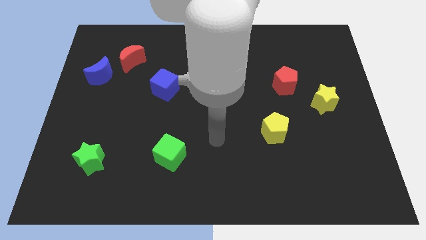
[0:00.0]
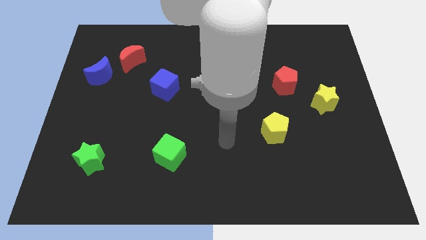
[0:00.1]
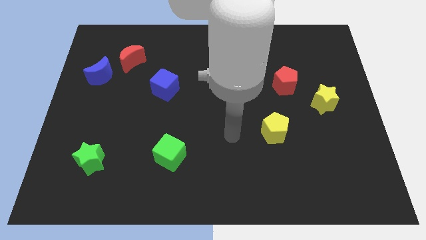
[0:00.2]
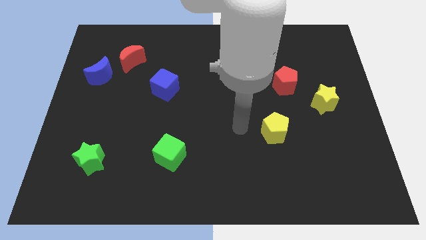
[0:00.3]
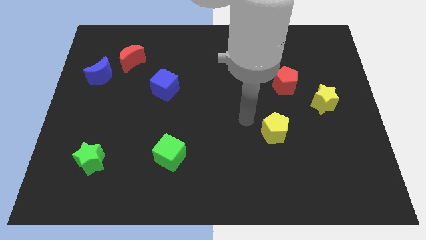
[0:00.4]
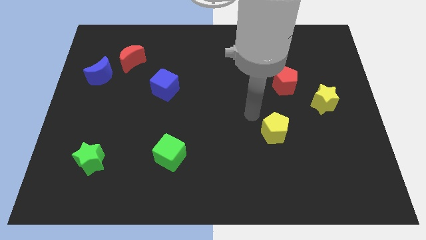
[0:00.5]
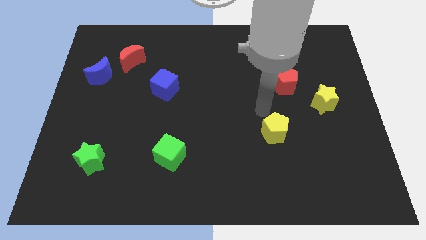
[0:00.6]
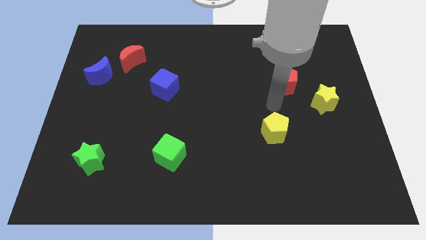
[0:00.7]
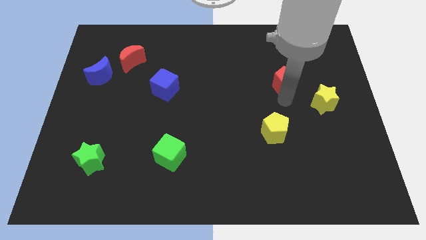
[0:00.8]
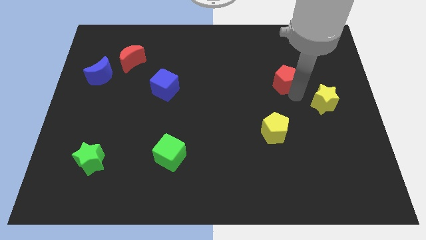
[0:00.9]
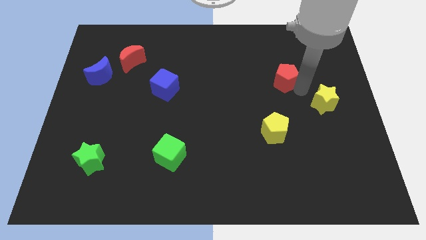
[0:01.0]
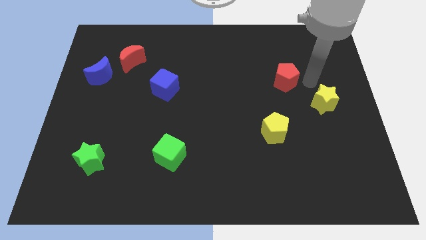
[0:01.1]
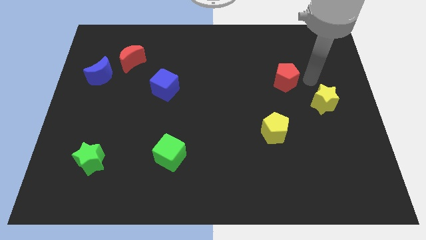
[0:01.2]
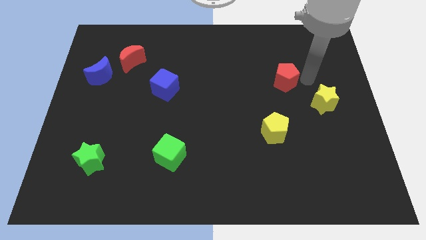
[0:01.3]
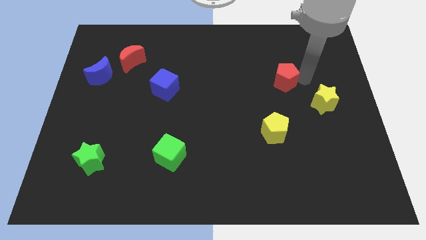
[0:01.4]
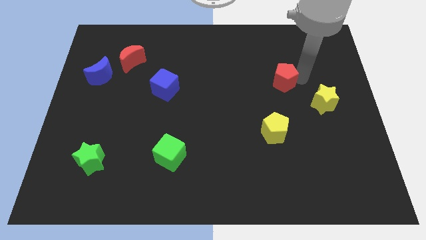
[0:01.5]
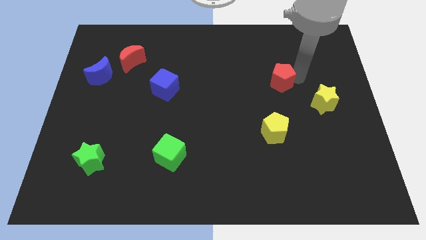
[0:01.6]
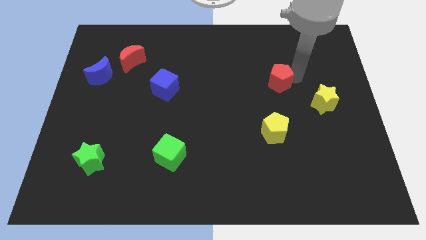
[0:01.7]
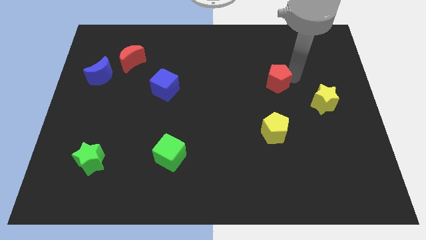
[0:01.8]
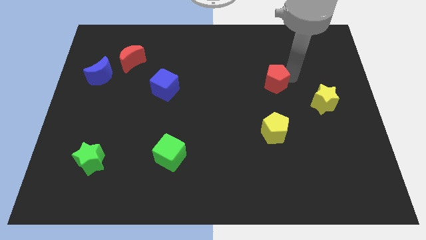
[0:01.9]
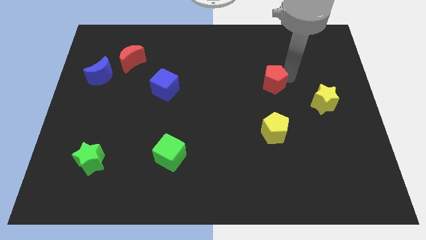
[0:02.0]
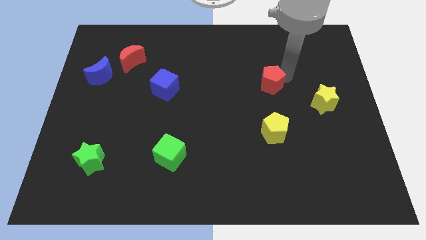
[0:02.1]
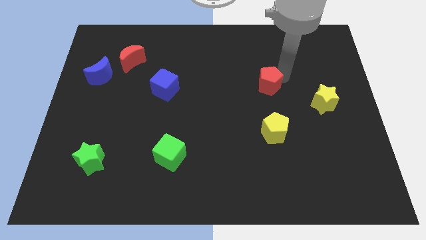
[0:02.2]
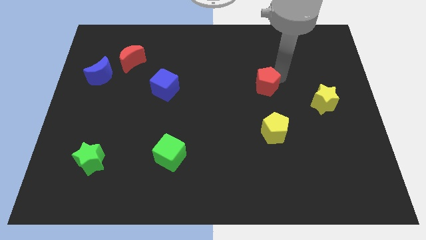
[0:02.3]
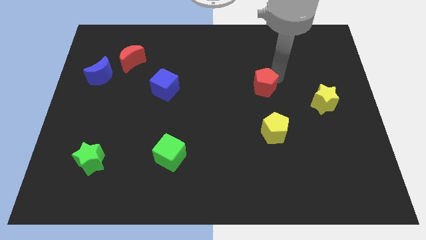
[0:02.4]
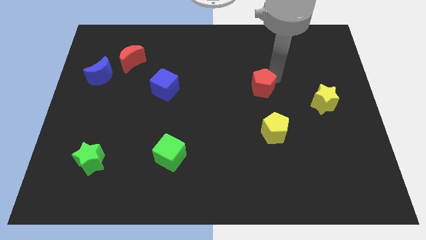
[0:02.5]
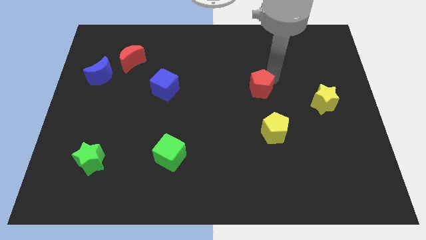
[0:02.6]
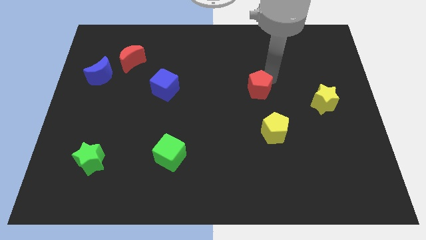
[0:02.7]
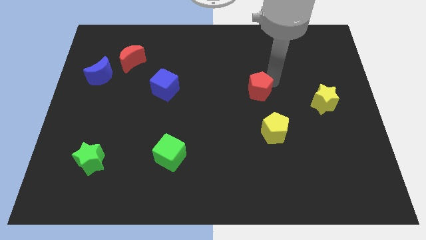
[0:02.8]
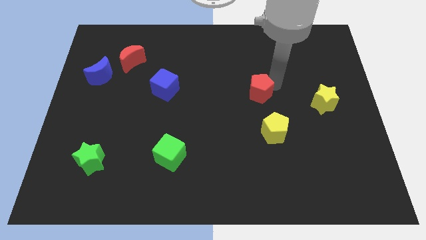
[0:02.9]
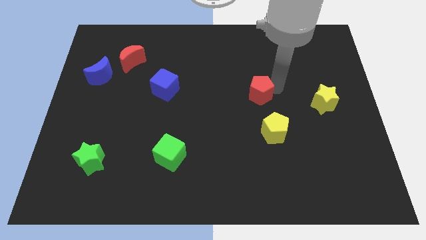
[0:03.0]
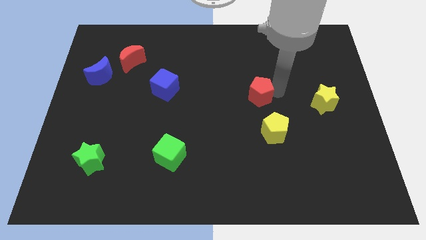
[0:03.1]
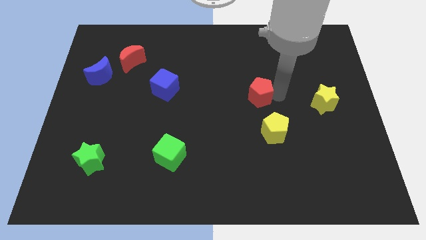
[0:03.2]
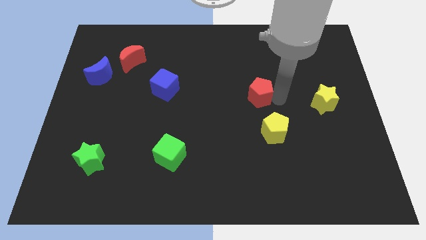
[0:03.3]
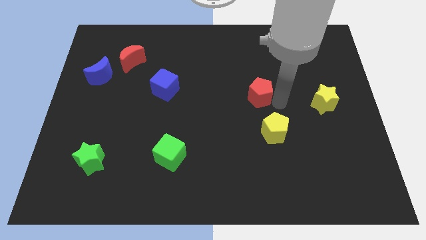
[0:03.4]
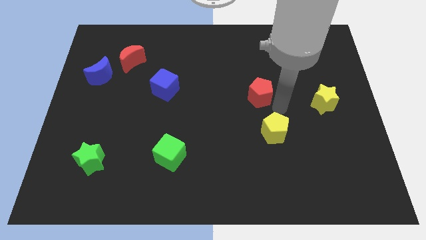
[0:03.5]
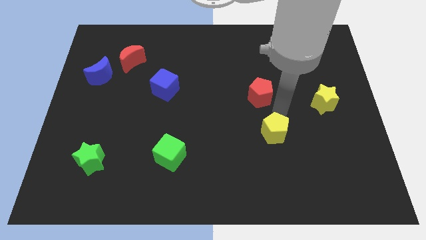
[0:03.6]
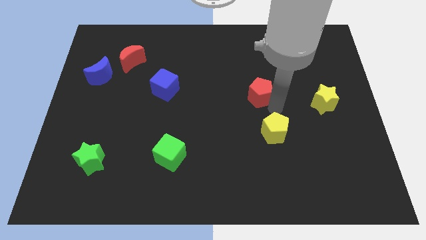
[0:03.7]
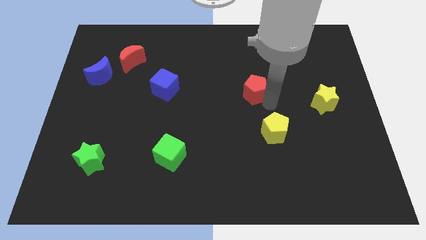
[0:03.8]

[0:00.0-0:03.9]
slightly push the red pentagon to the left

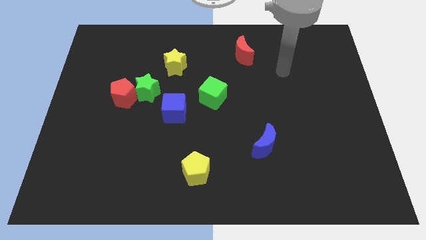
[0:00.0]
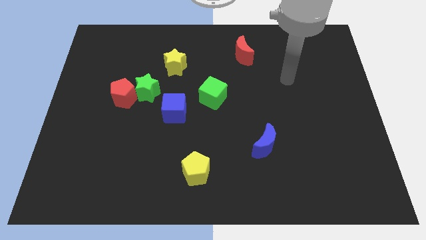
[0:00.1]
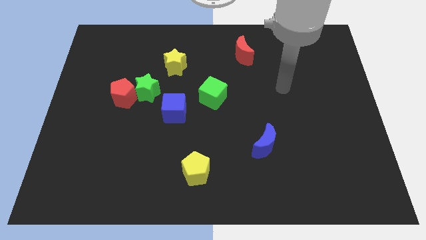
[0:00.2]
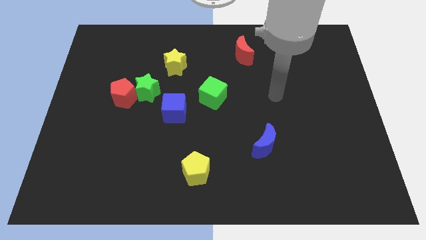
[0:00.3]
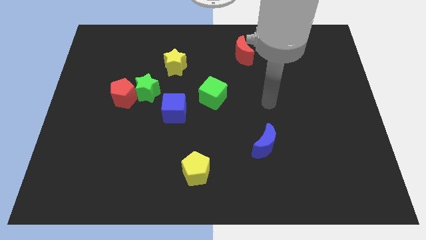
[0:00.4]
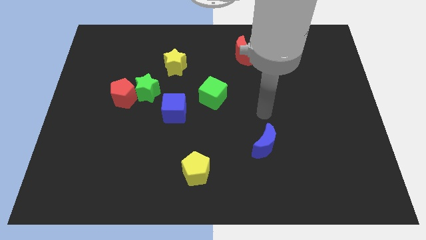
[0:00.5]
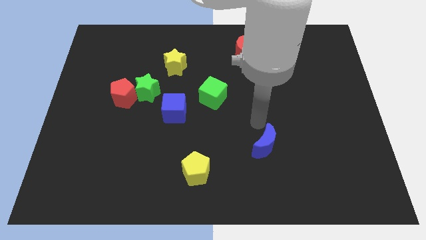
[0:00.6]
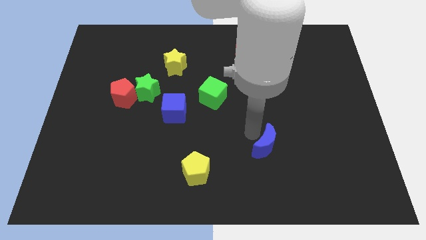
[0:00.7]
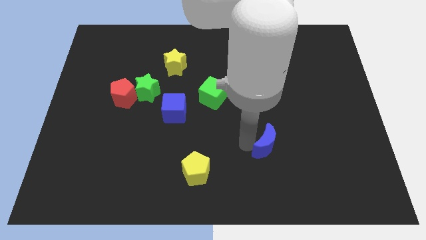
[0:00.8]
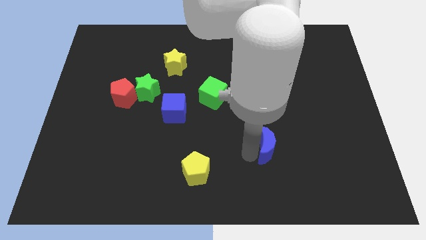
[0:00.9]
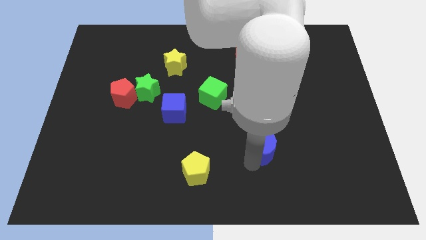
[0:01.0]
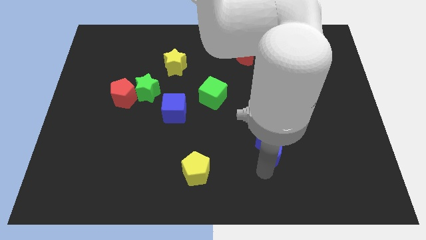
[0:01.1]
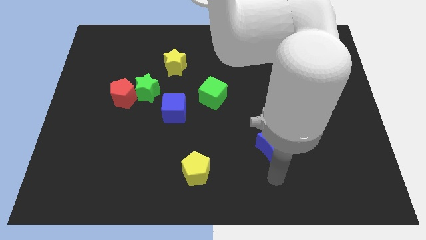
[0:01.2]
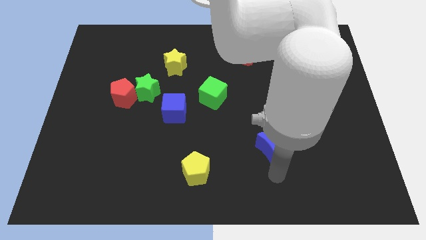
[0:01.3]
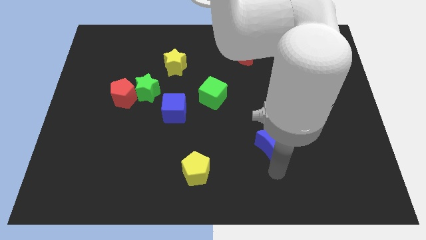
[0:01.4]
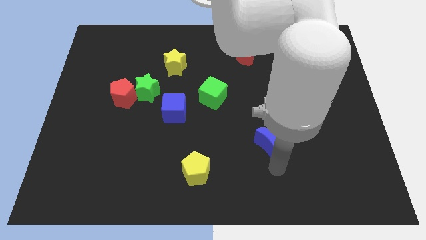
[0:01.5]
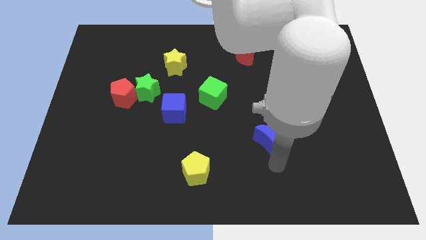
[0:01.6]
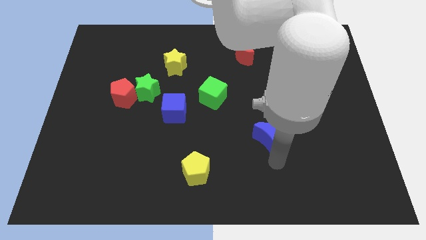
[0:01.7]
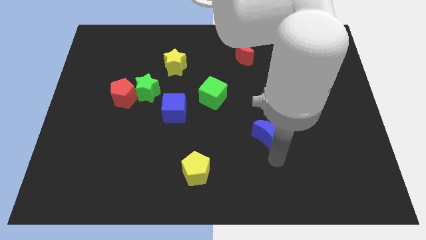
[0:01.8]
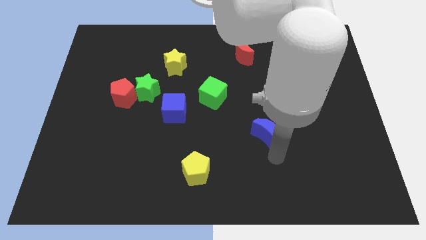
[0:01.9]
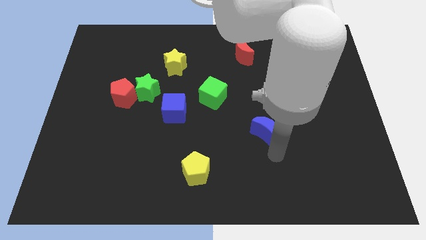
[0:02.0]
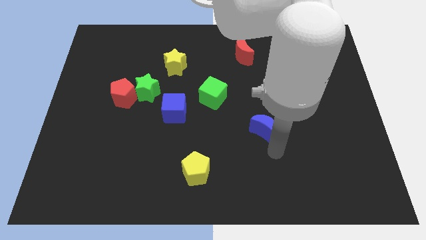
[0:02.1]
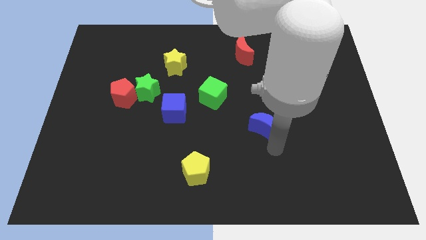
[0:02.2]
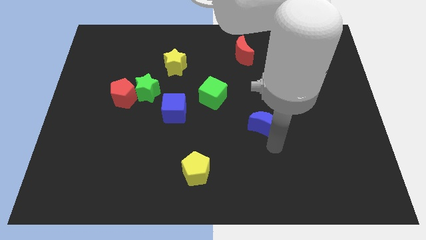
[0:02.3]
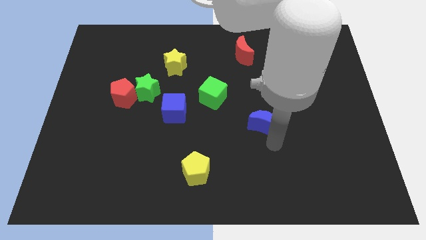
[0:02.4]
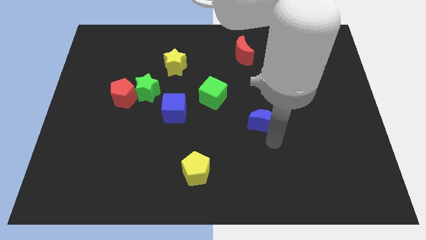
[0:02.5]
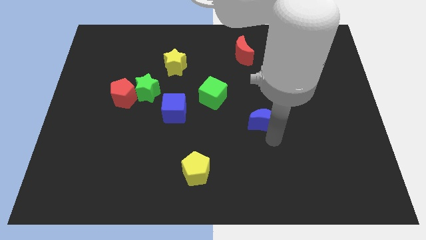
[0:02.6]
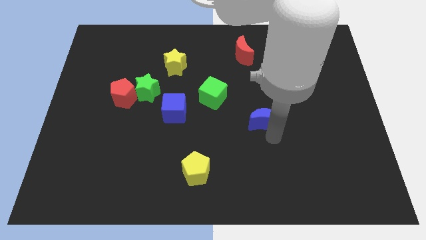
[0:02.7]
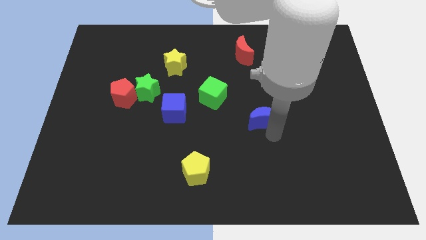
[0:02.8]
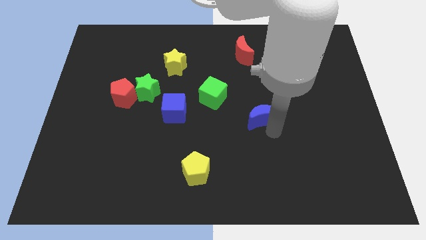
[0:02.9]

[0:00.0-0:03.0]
slightly push the blue moon upwards

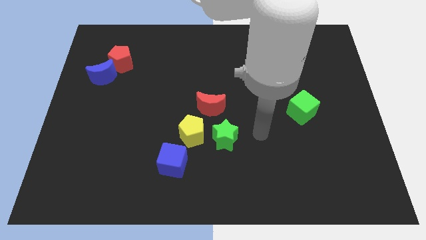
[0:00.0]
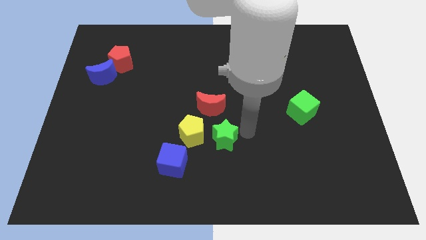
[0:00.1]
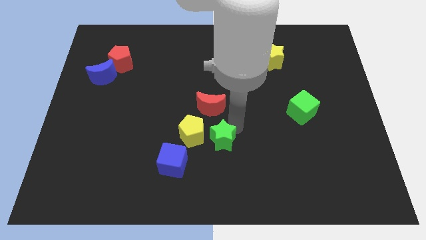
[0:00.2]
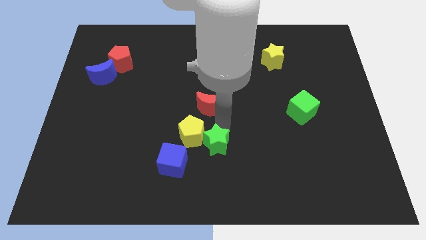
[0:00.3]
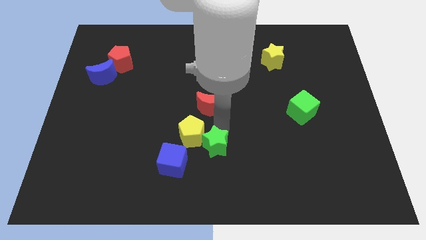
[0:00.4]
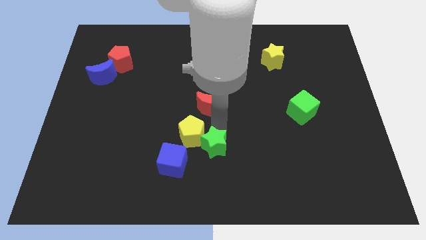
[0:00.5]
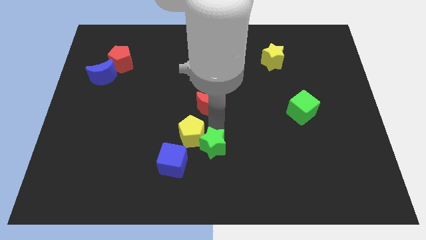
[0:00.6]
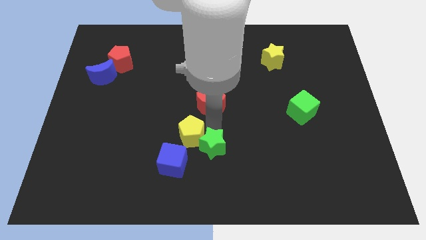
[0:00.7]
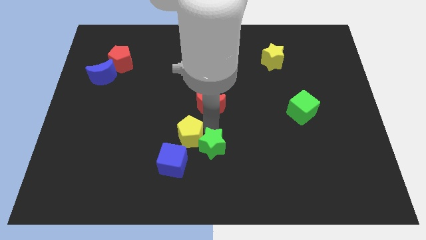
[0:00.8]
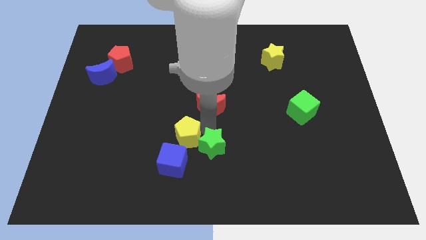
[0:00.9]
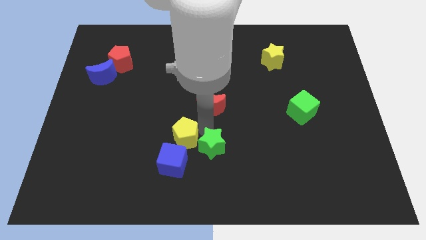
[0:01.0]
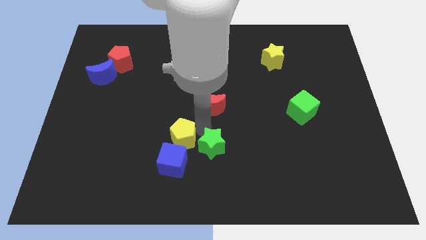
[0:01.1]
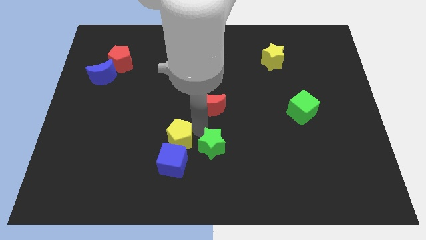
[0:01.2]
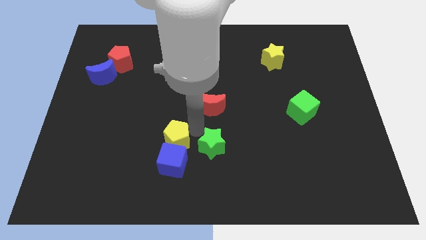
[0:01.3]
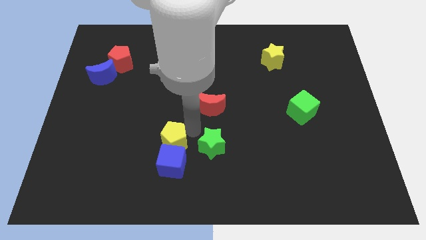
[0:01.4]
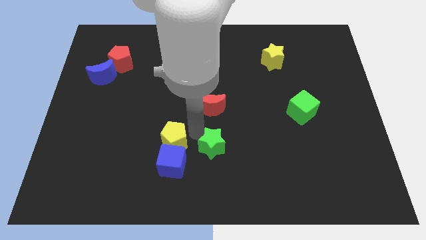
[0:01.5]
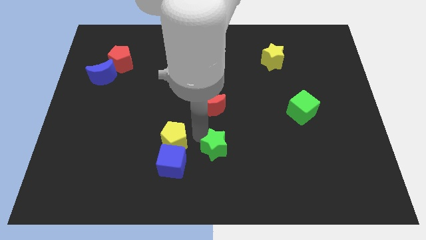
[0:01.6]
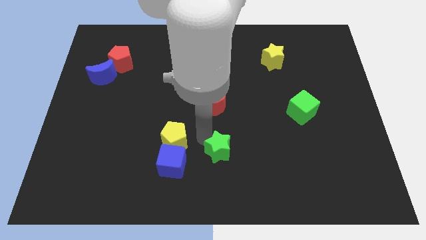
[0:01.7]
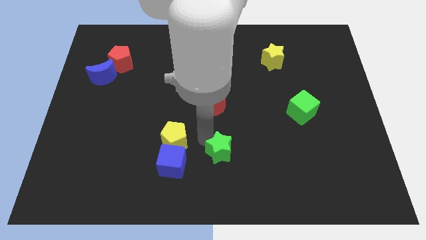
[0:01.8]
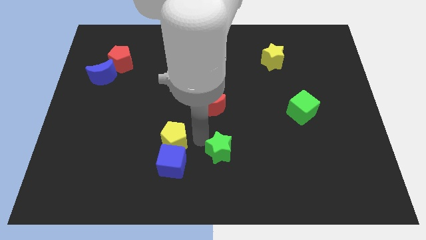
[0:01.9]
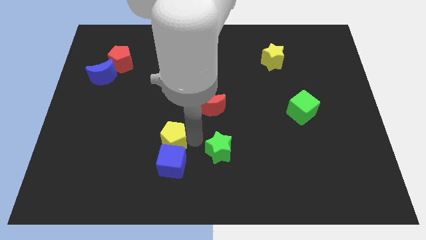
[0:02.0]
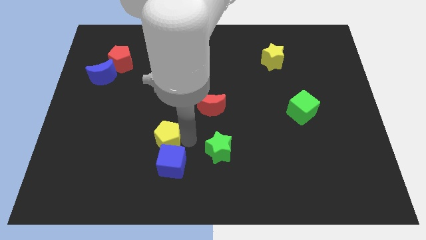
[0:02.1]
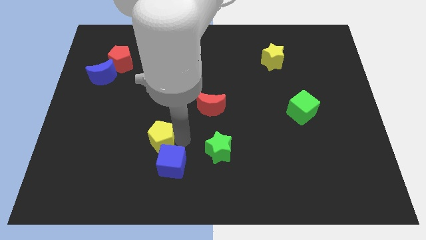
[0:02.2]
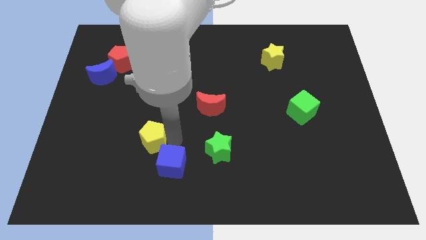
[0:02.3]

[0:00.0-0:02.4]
push the yellow pentagon a little to the left
